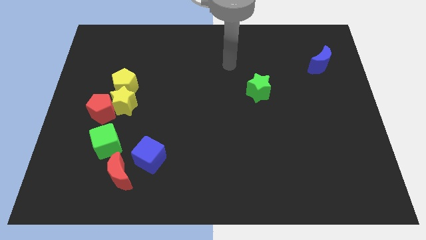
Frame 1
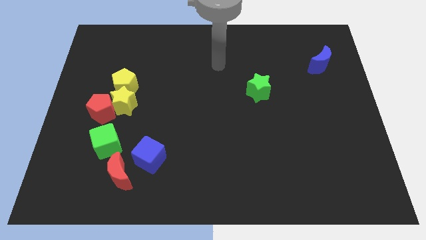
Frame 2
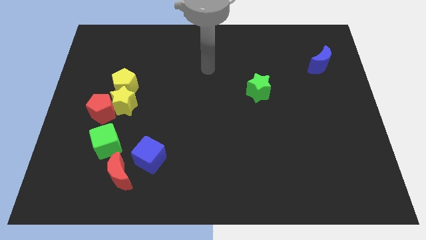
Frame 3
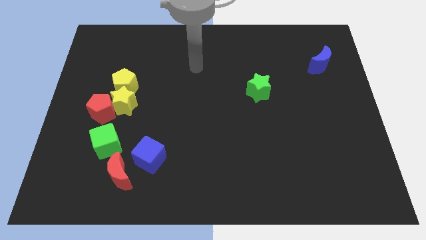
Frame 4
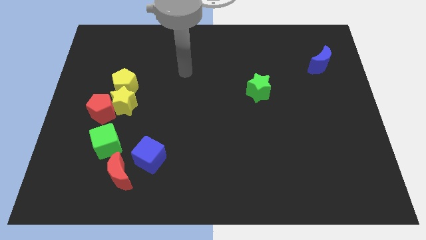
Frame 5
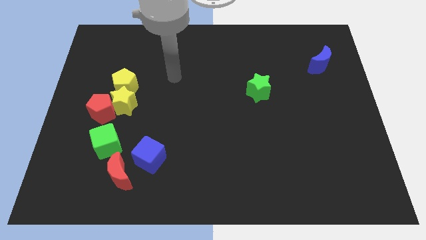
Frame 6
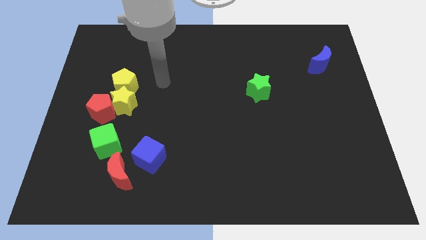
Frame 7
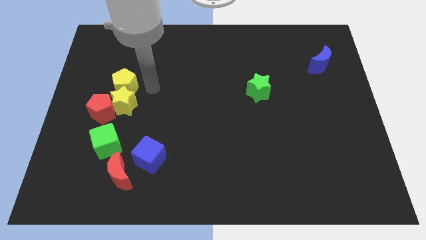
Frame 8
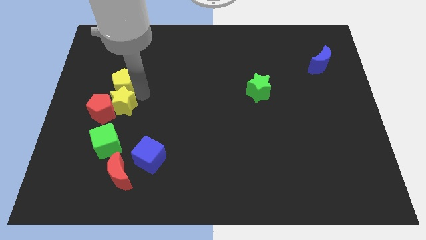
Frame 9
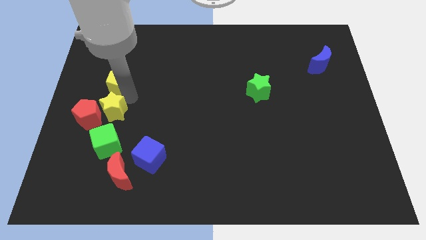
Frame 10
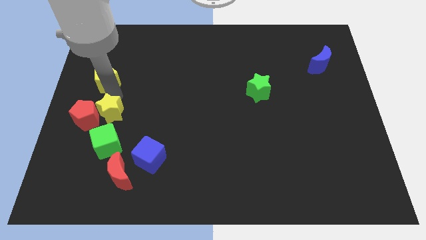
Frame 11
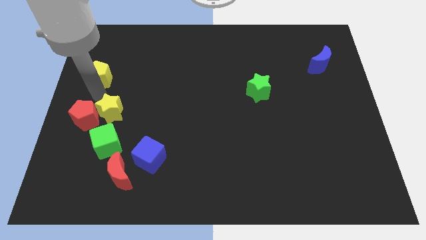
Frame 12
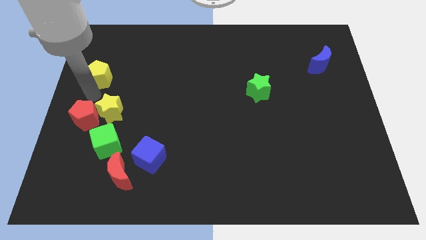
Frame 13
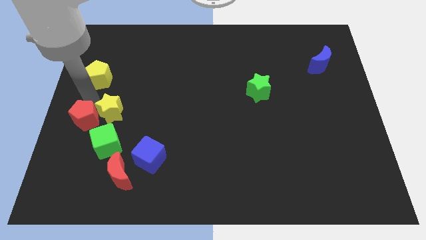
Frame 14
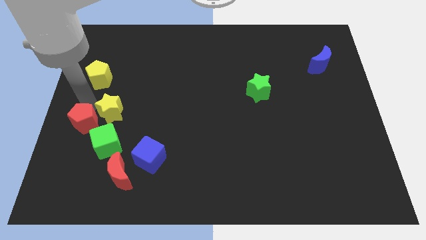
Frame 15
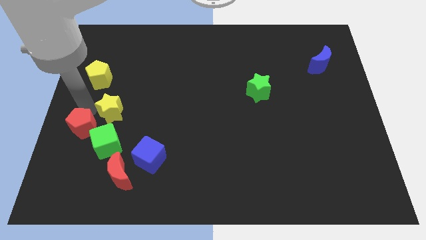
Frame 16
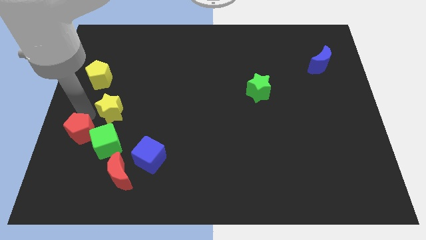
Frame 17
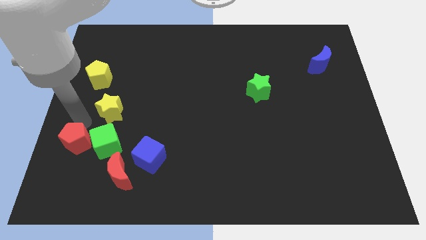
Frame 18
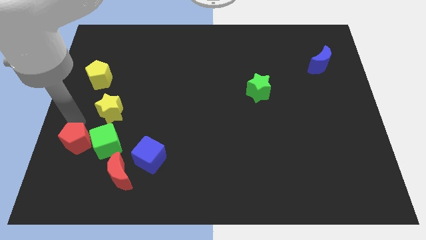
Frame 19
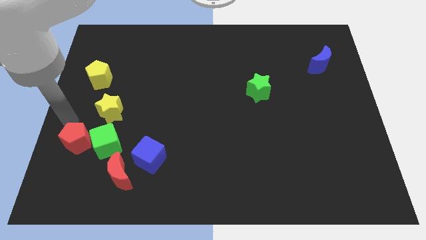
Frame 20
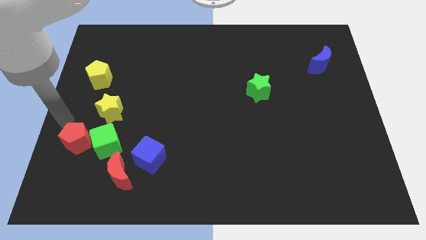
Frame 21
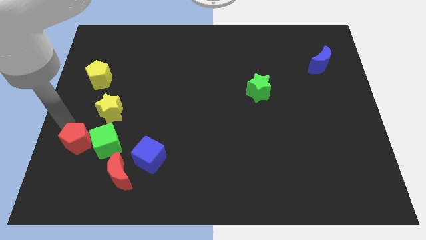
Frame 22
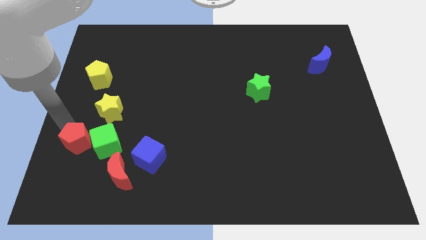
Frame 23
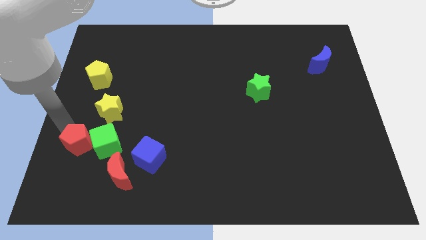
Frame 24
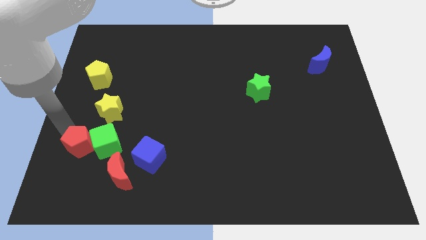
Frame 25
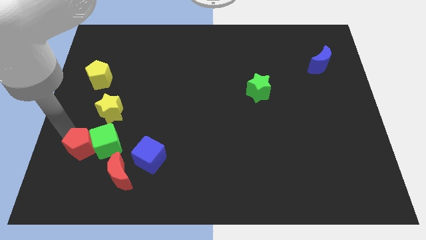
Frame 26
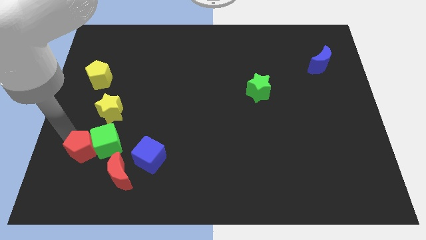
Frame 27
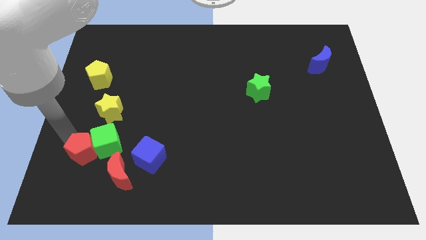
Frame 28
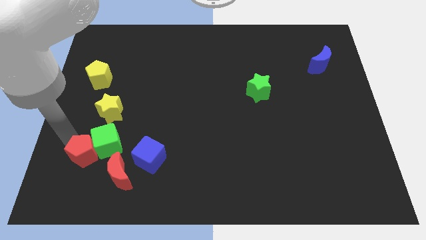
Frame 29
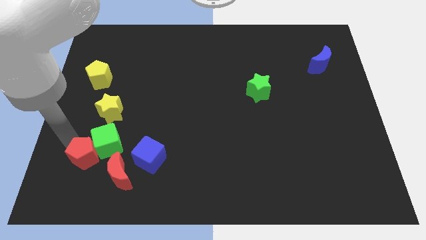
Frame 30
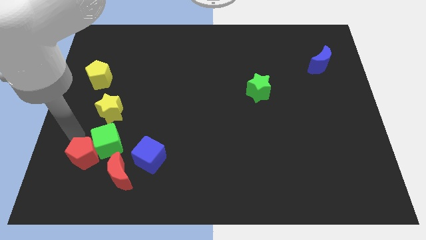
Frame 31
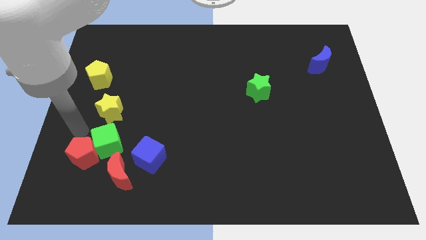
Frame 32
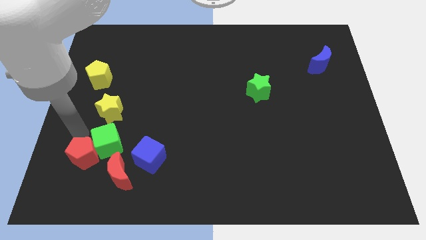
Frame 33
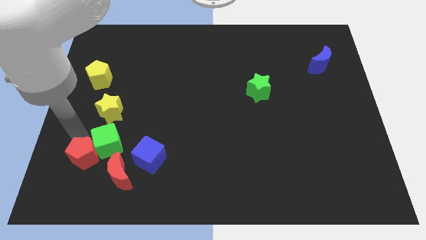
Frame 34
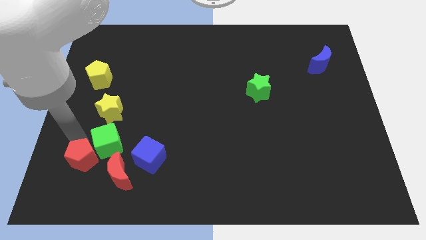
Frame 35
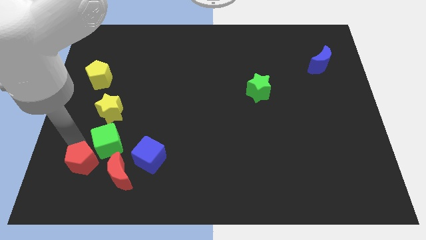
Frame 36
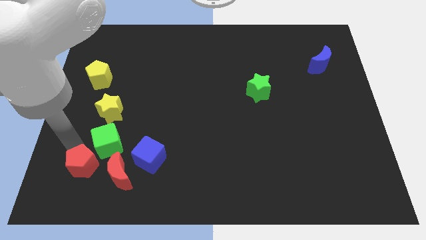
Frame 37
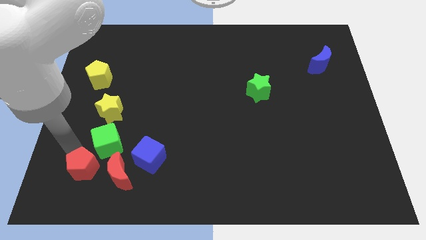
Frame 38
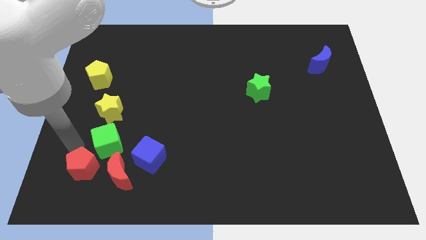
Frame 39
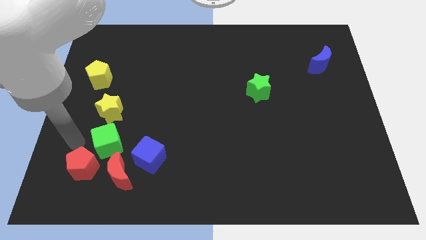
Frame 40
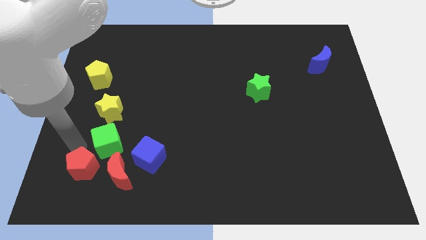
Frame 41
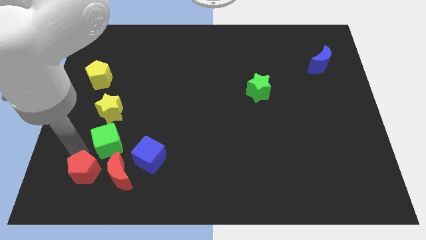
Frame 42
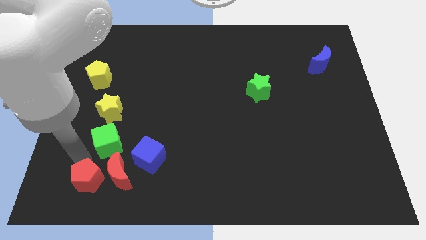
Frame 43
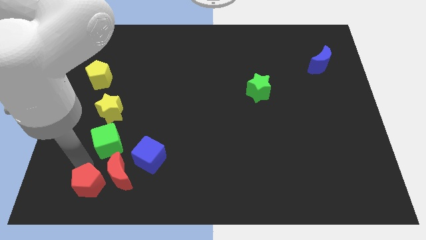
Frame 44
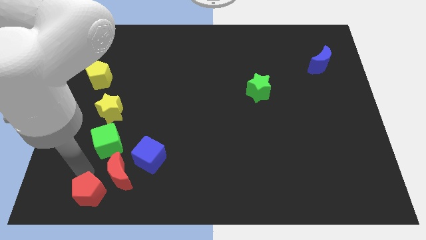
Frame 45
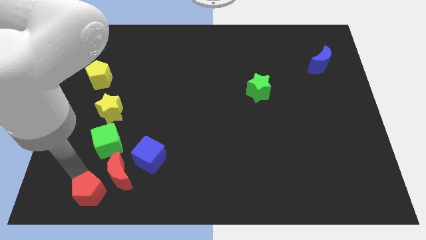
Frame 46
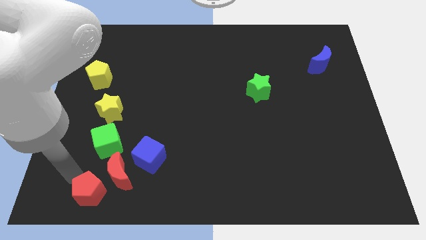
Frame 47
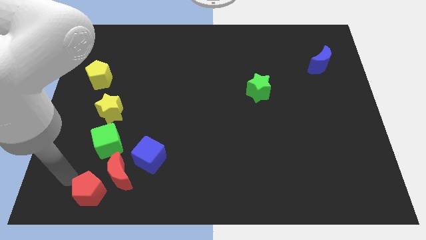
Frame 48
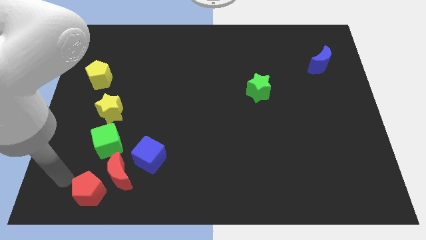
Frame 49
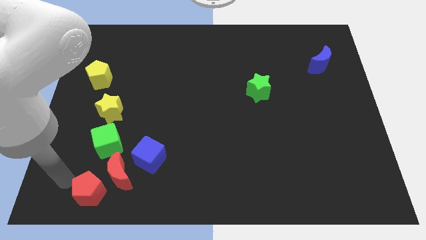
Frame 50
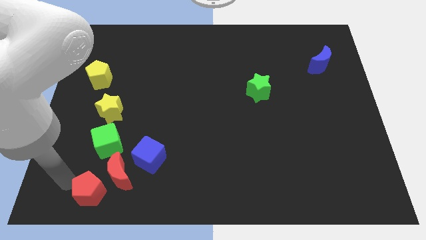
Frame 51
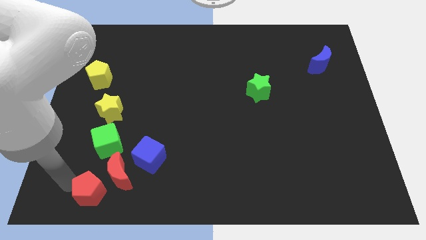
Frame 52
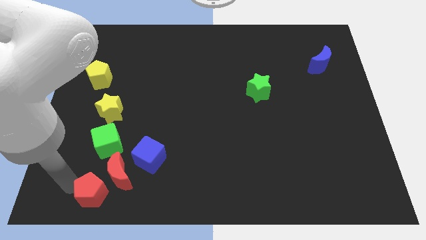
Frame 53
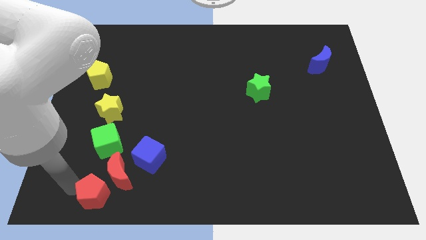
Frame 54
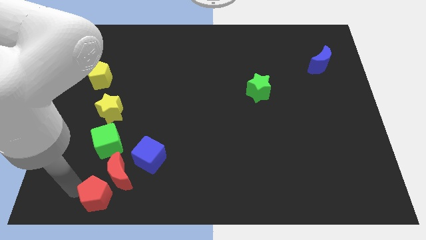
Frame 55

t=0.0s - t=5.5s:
put the red pentagon to the bottom left side of the blue cube

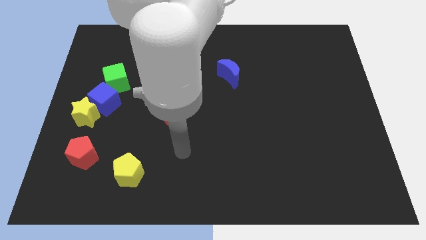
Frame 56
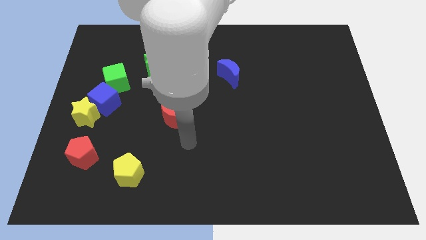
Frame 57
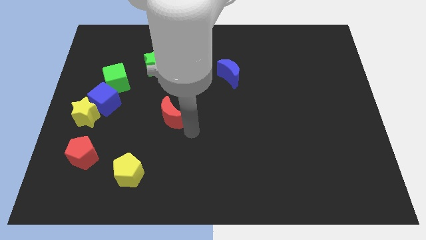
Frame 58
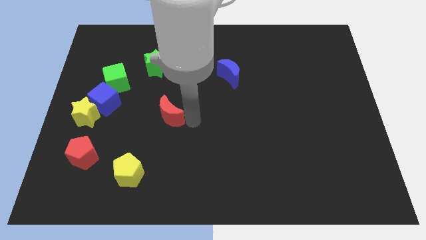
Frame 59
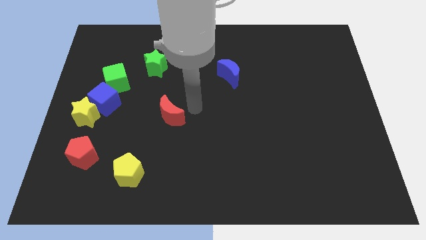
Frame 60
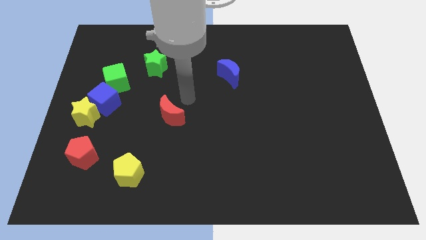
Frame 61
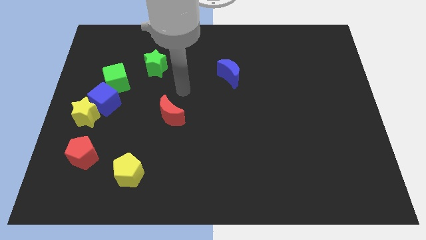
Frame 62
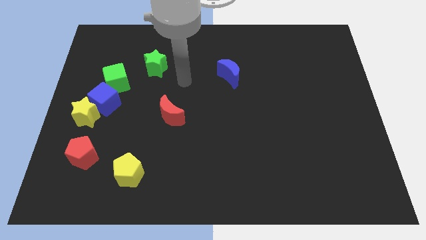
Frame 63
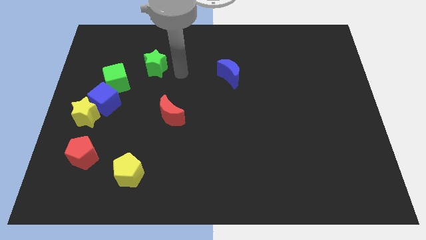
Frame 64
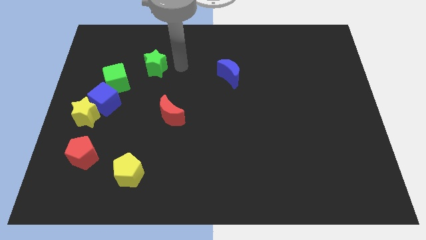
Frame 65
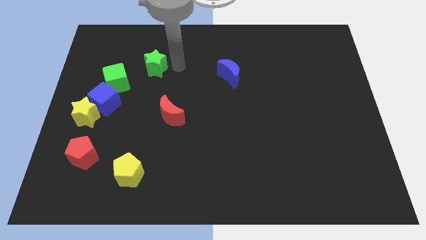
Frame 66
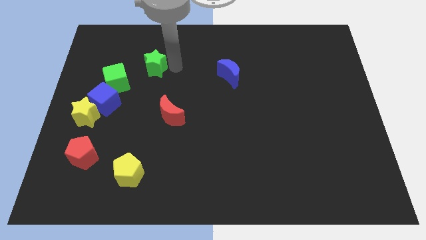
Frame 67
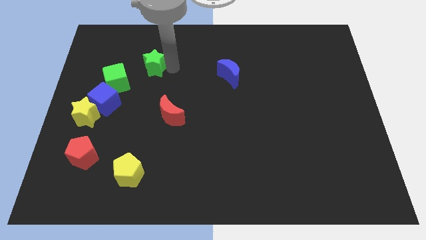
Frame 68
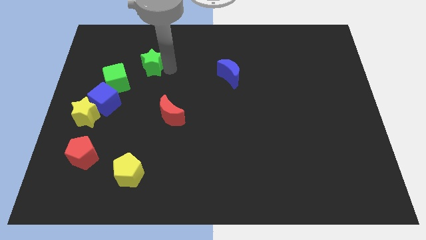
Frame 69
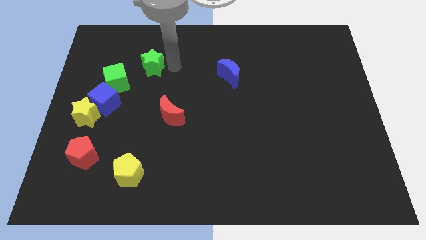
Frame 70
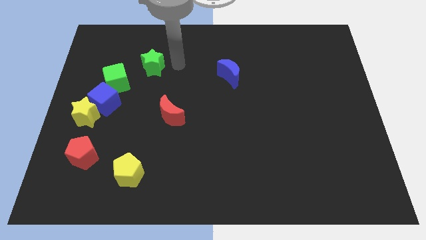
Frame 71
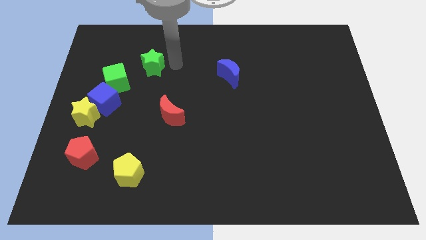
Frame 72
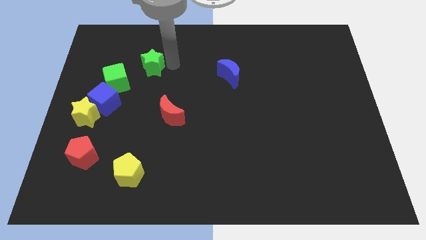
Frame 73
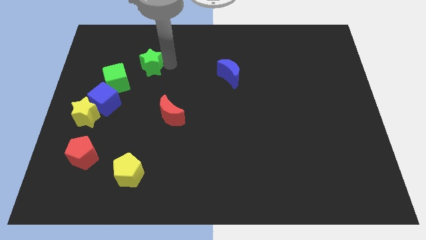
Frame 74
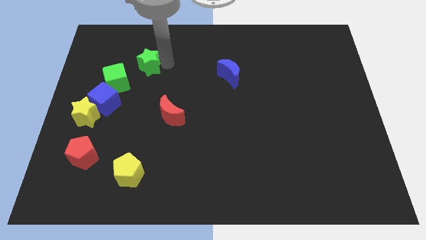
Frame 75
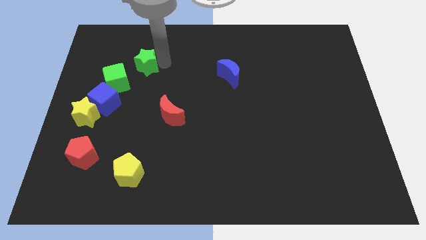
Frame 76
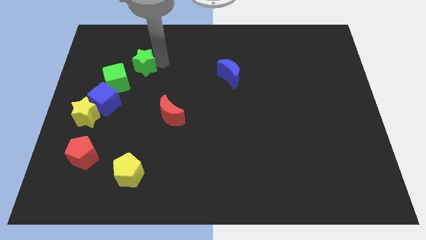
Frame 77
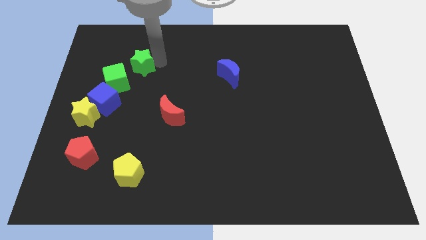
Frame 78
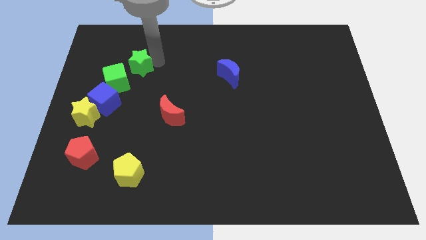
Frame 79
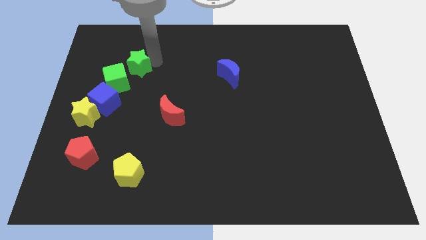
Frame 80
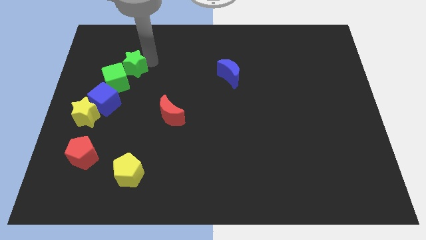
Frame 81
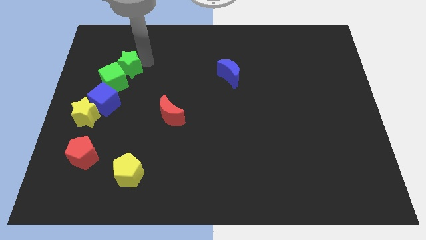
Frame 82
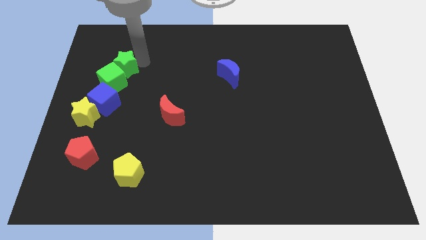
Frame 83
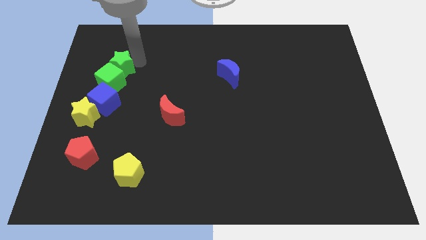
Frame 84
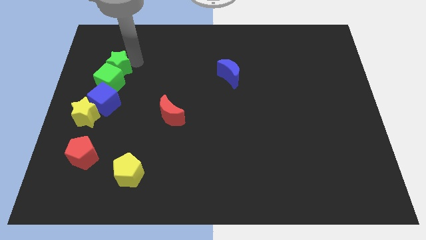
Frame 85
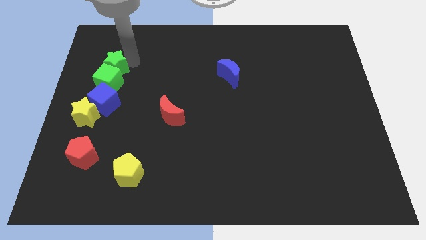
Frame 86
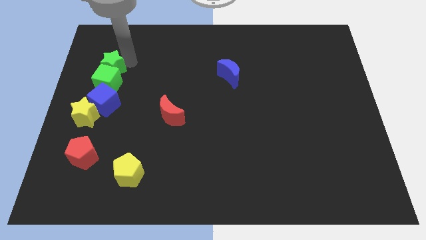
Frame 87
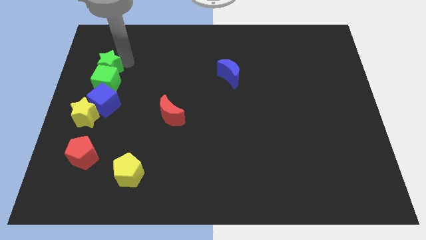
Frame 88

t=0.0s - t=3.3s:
push the green star above the yellow star
